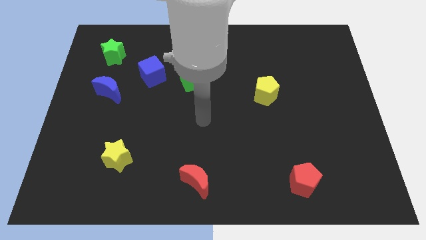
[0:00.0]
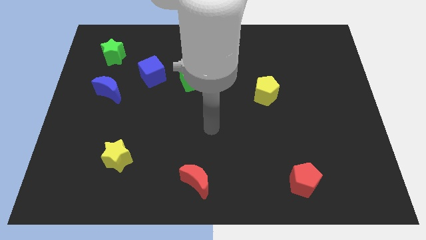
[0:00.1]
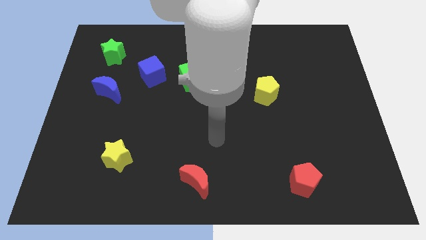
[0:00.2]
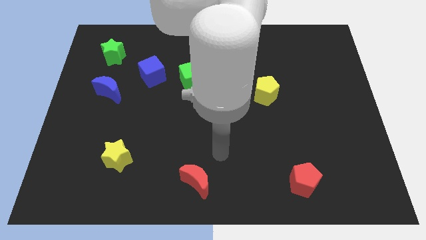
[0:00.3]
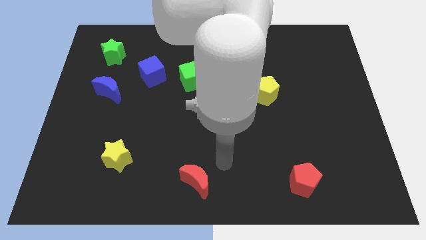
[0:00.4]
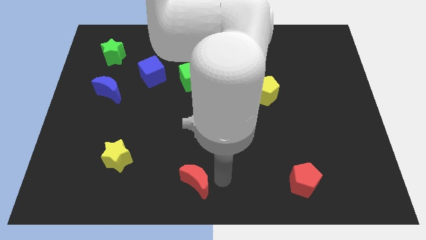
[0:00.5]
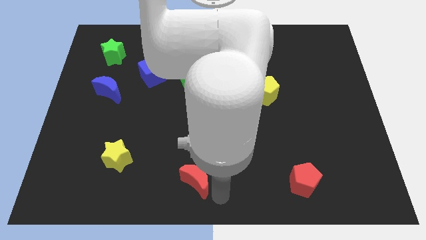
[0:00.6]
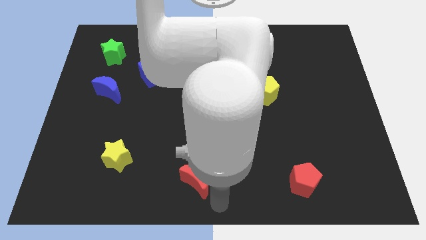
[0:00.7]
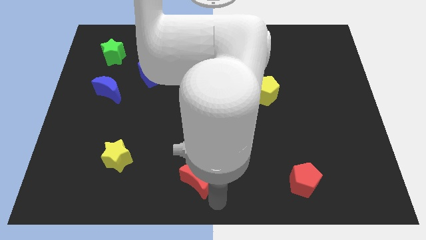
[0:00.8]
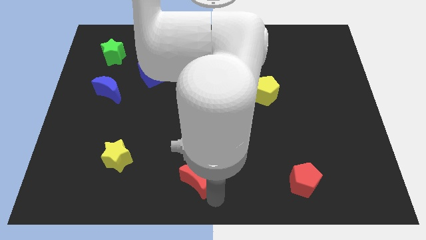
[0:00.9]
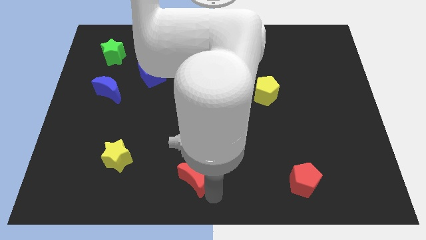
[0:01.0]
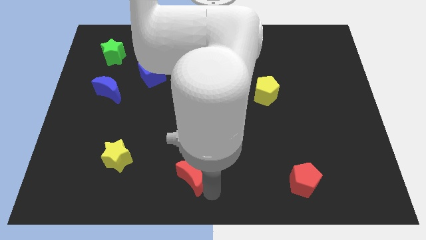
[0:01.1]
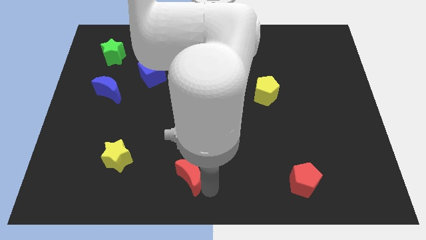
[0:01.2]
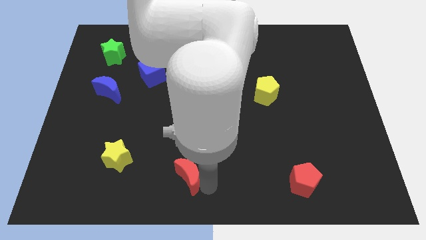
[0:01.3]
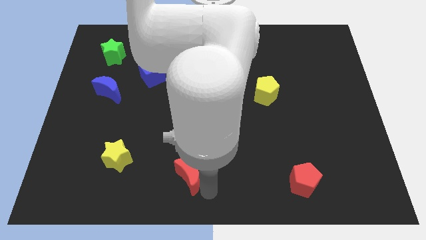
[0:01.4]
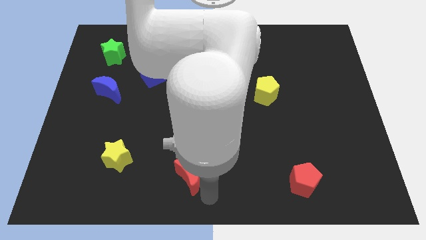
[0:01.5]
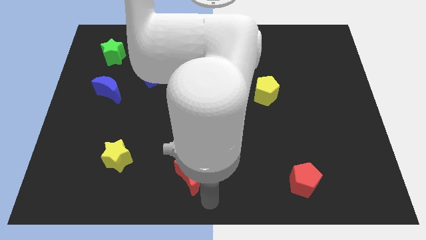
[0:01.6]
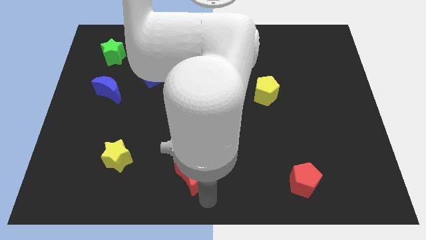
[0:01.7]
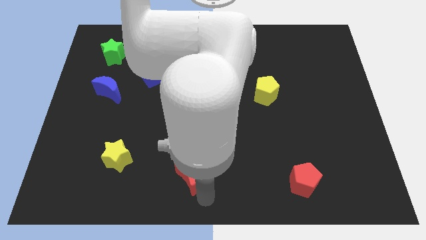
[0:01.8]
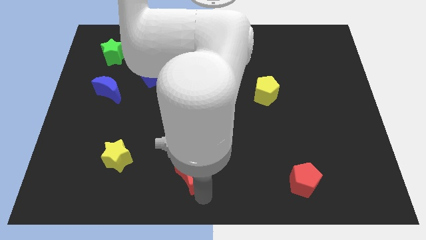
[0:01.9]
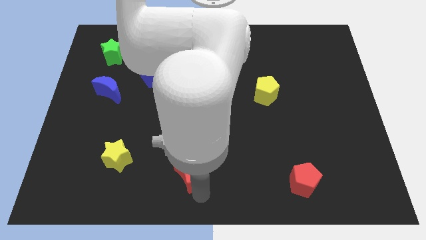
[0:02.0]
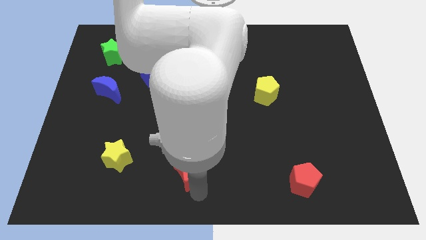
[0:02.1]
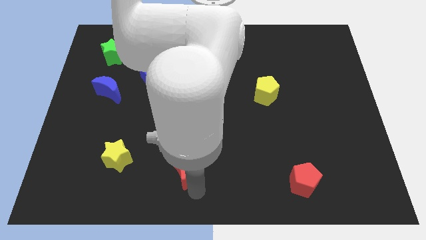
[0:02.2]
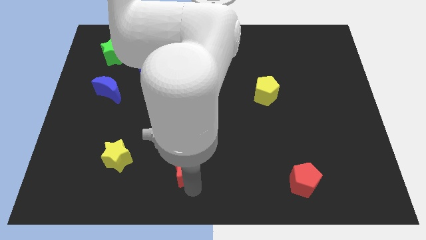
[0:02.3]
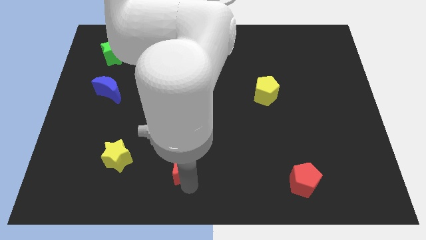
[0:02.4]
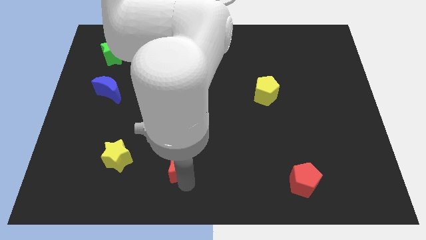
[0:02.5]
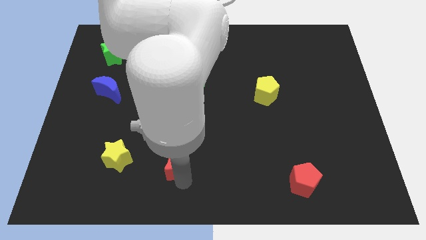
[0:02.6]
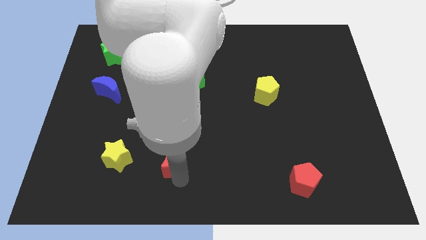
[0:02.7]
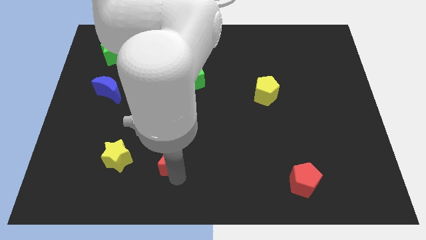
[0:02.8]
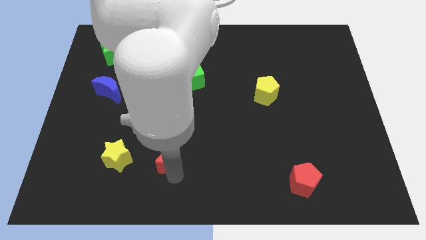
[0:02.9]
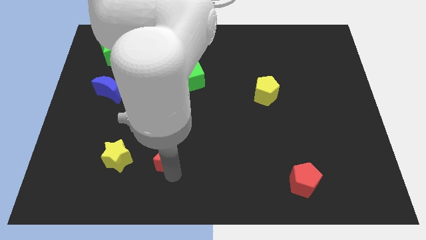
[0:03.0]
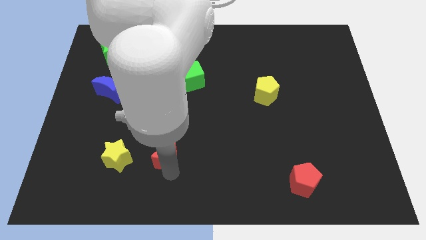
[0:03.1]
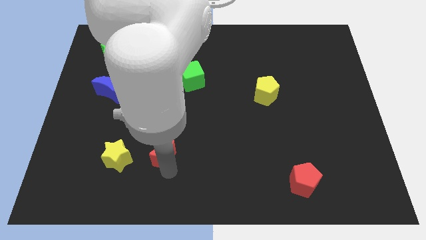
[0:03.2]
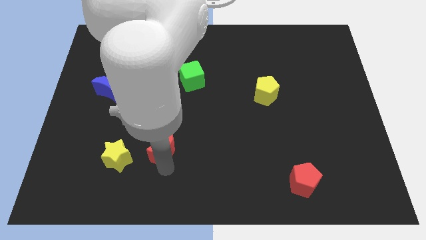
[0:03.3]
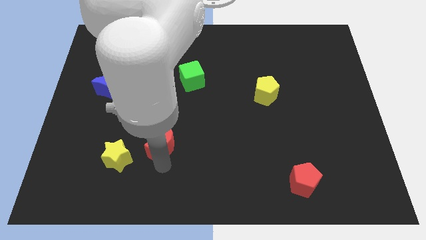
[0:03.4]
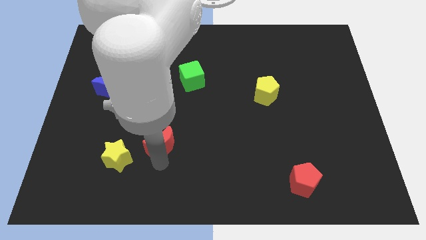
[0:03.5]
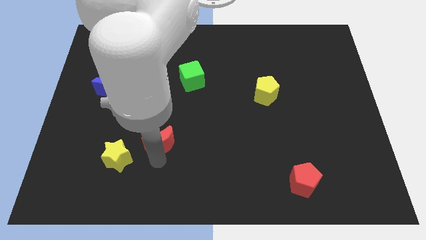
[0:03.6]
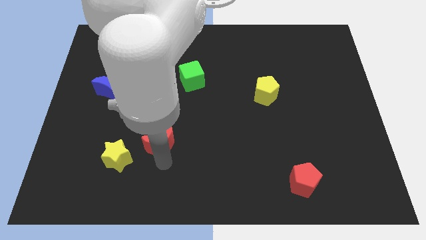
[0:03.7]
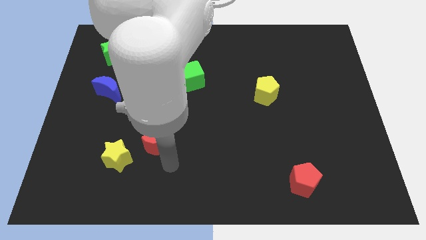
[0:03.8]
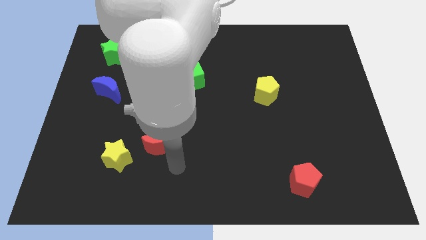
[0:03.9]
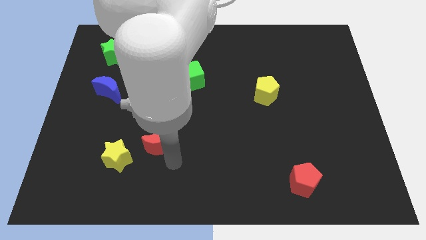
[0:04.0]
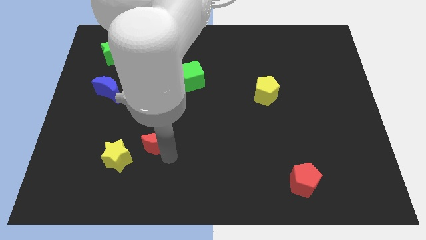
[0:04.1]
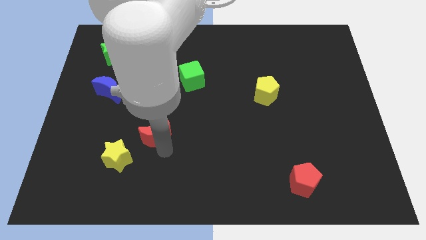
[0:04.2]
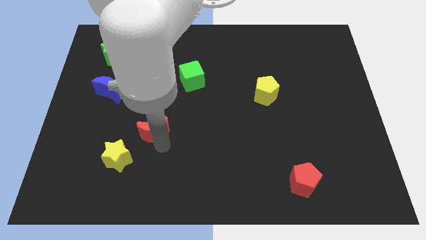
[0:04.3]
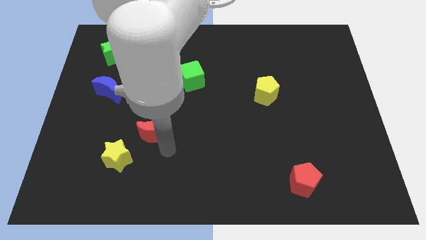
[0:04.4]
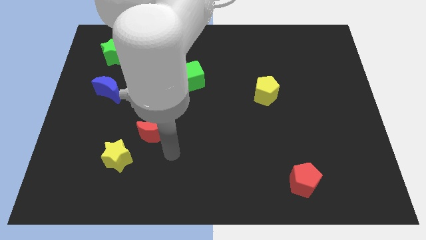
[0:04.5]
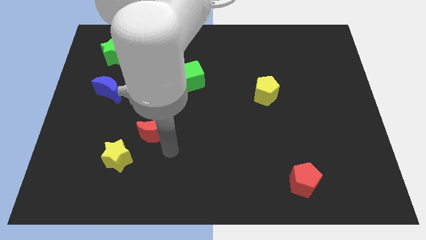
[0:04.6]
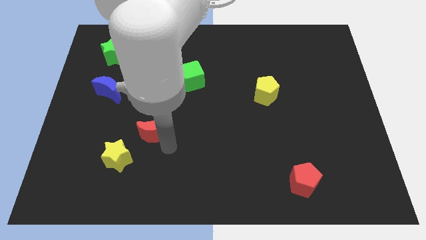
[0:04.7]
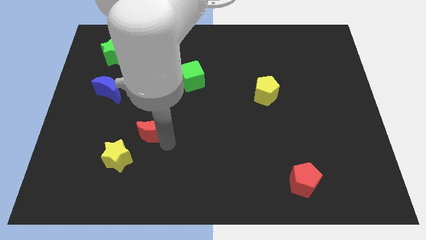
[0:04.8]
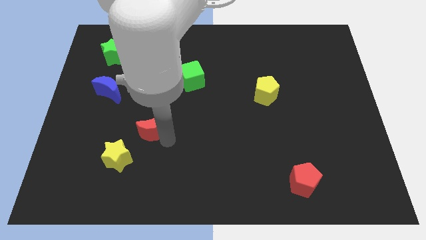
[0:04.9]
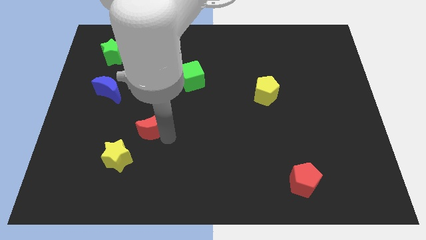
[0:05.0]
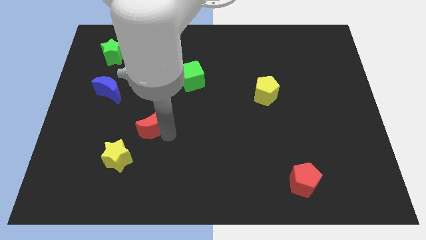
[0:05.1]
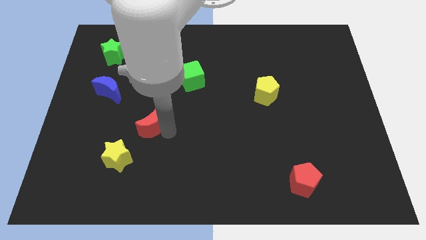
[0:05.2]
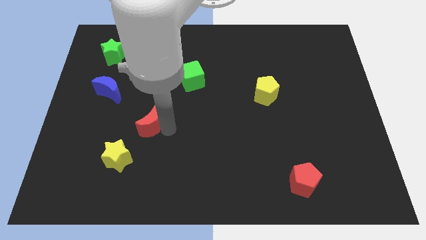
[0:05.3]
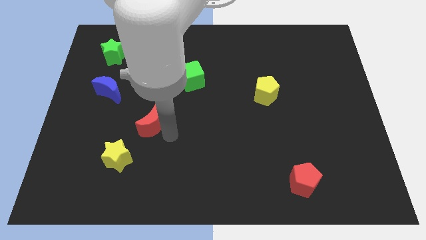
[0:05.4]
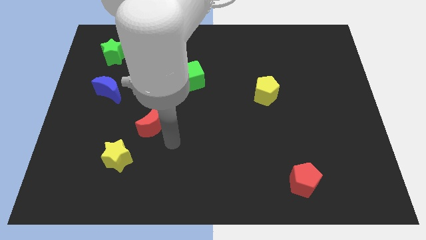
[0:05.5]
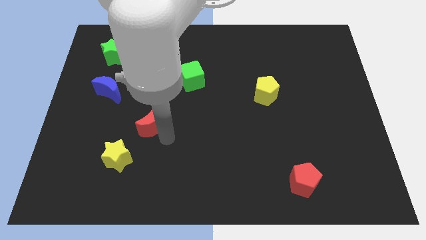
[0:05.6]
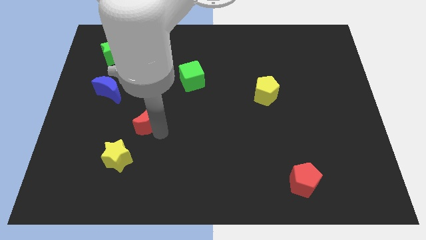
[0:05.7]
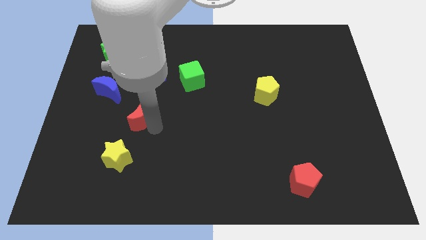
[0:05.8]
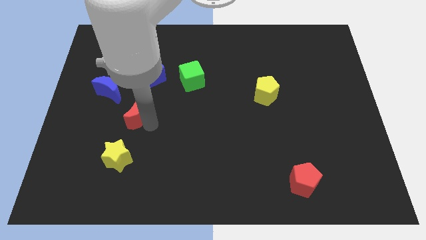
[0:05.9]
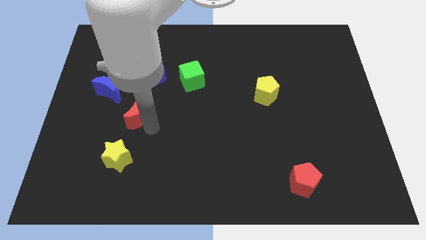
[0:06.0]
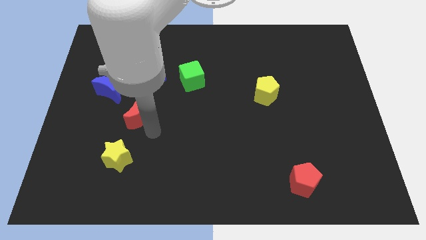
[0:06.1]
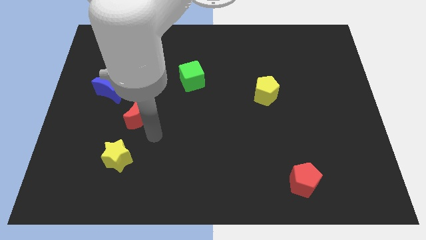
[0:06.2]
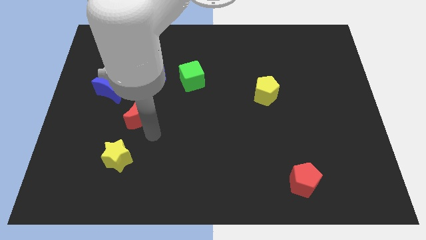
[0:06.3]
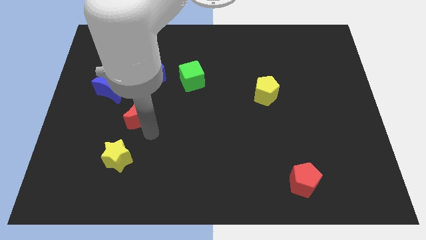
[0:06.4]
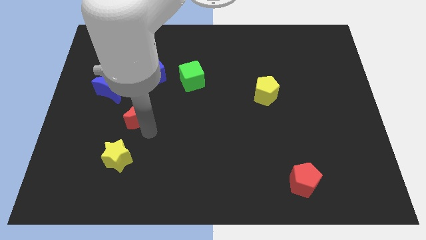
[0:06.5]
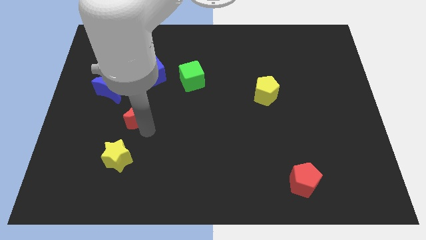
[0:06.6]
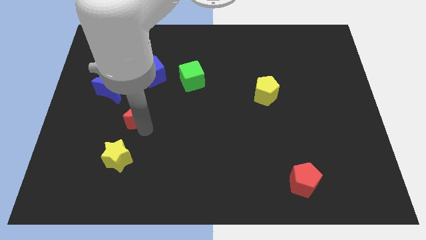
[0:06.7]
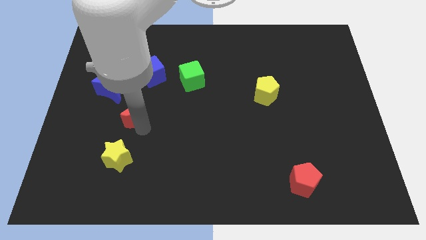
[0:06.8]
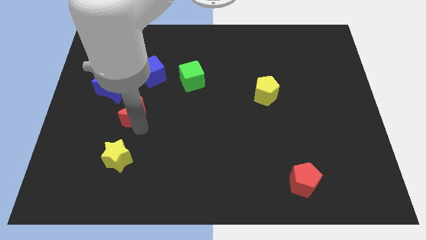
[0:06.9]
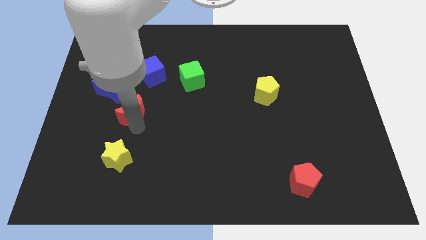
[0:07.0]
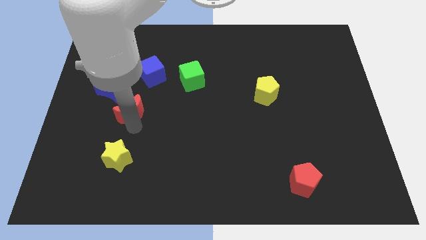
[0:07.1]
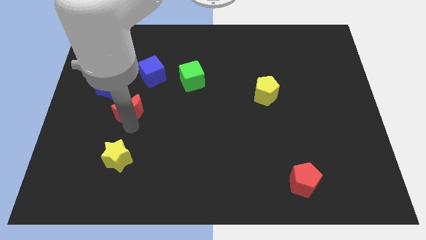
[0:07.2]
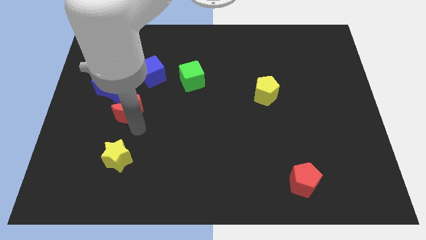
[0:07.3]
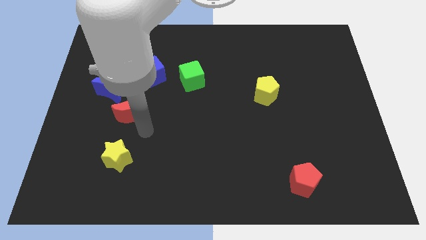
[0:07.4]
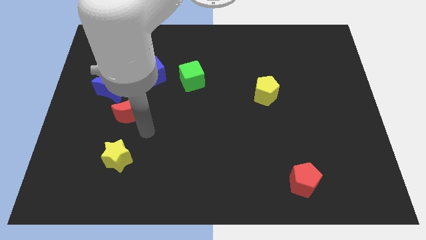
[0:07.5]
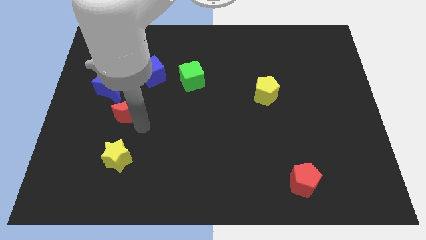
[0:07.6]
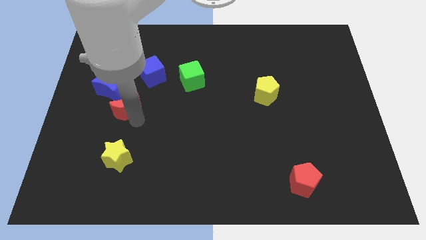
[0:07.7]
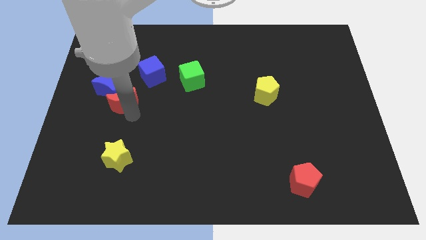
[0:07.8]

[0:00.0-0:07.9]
slide the red moon towards the blue moon
